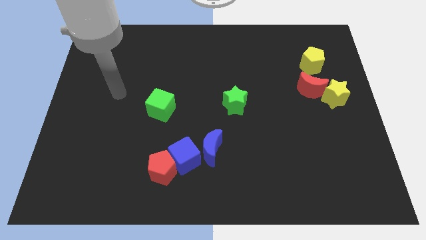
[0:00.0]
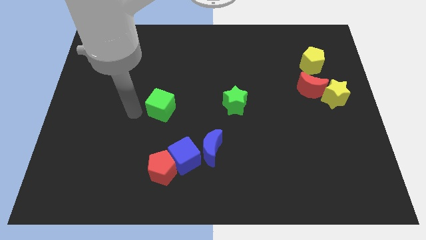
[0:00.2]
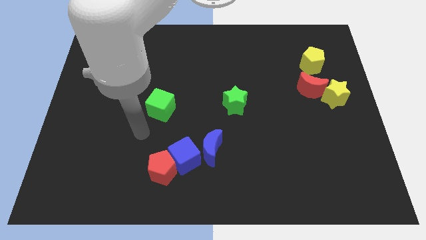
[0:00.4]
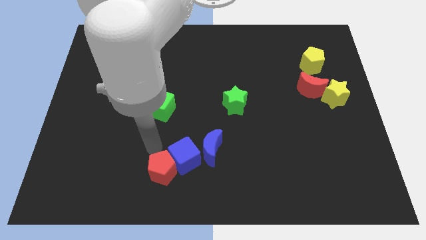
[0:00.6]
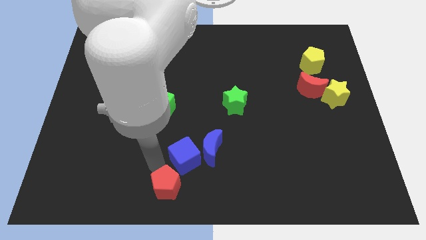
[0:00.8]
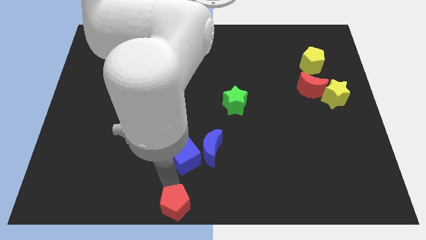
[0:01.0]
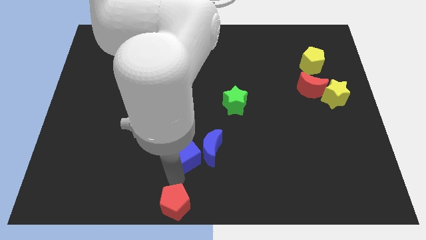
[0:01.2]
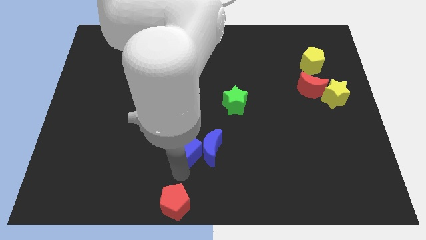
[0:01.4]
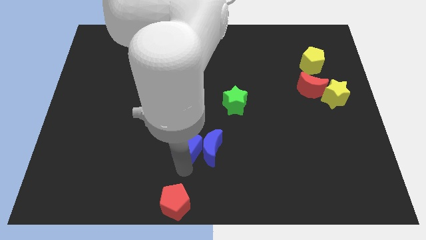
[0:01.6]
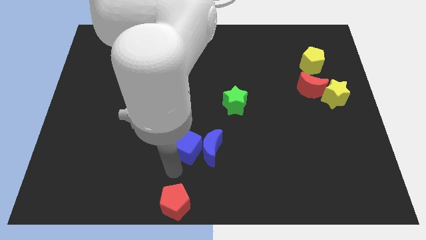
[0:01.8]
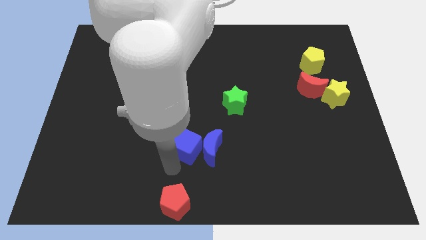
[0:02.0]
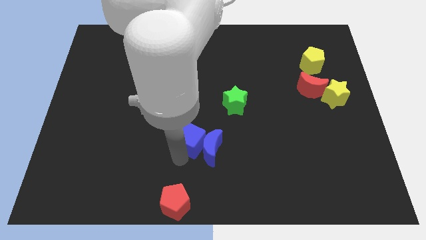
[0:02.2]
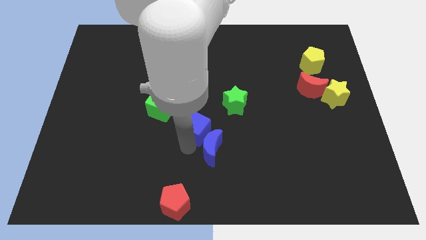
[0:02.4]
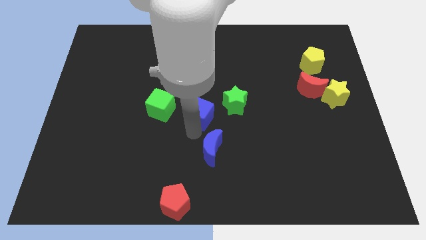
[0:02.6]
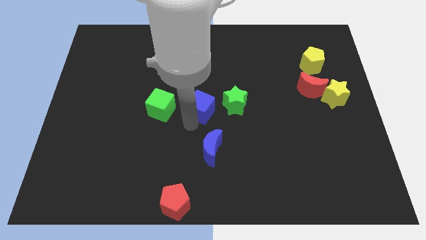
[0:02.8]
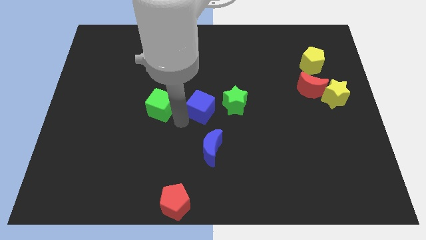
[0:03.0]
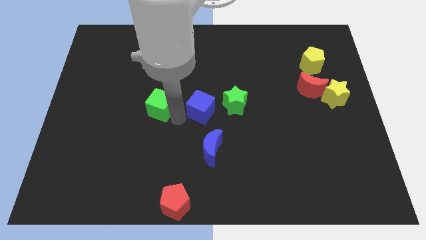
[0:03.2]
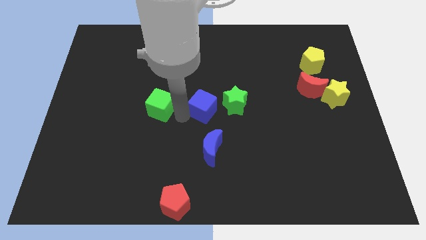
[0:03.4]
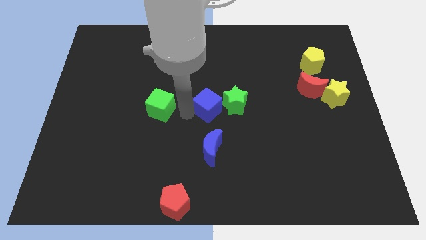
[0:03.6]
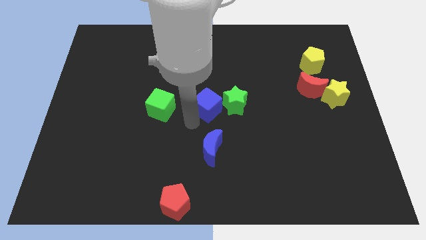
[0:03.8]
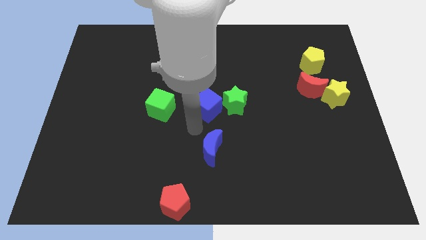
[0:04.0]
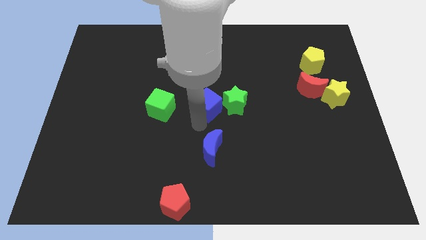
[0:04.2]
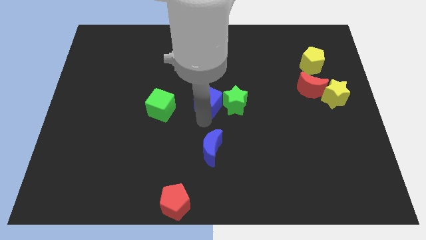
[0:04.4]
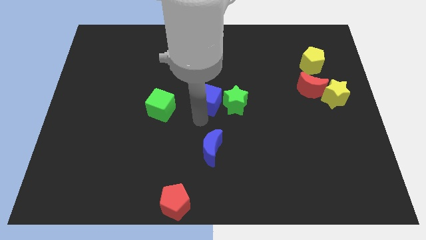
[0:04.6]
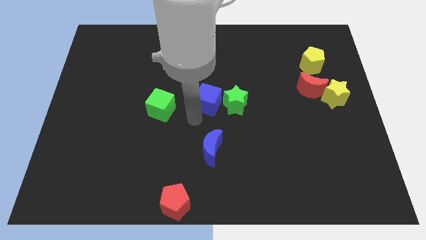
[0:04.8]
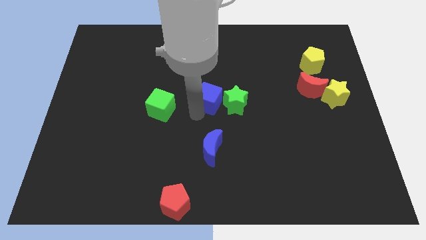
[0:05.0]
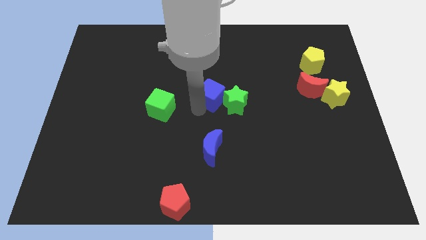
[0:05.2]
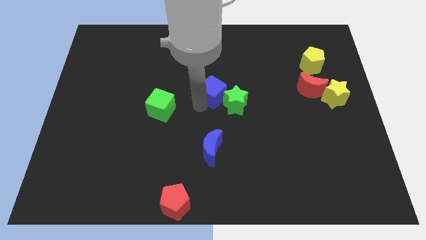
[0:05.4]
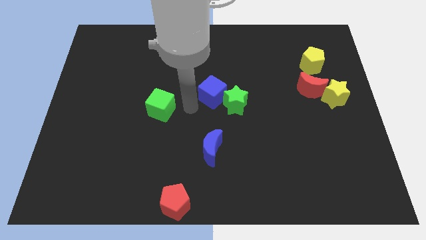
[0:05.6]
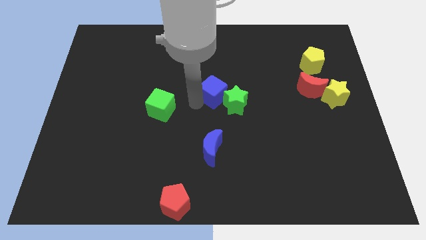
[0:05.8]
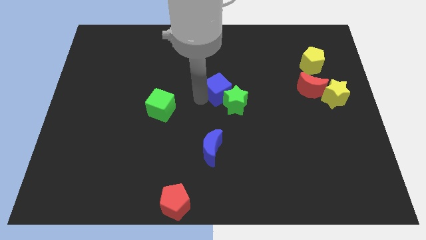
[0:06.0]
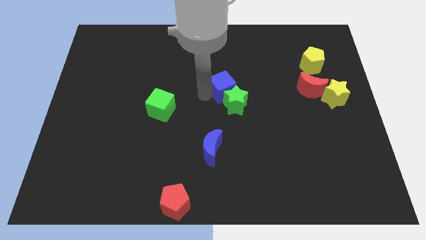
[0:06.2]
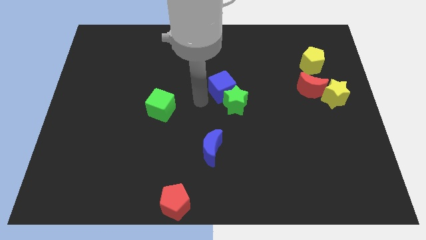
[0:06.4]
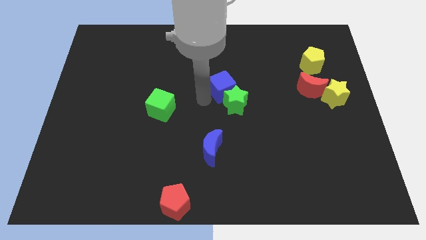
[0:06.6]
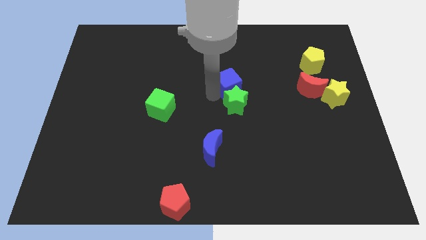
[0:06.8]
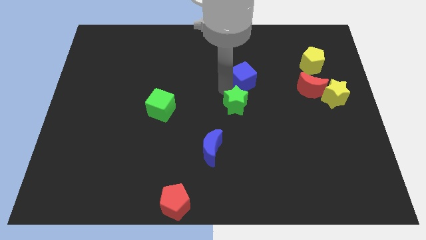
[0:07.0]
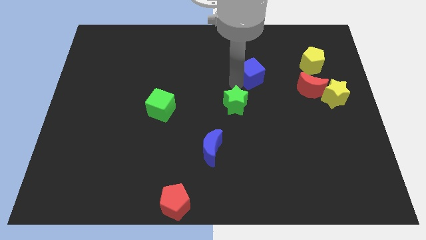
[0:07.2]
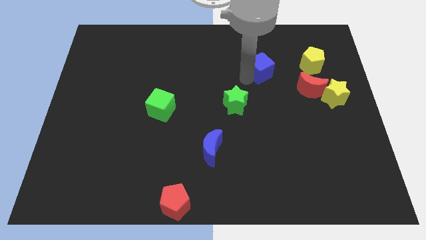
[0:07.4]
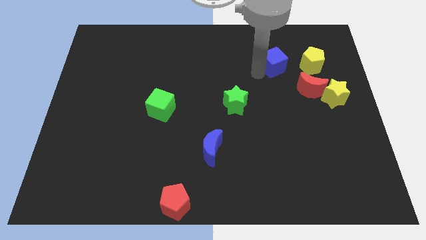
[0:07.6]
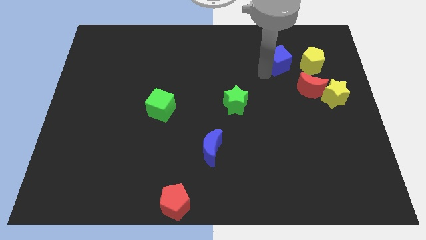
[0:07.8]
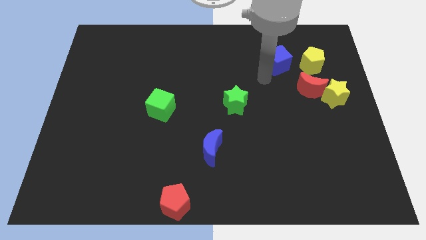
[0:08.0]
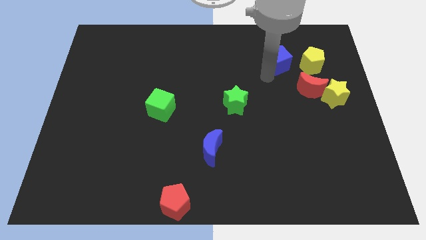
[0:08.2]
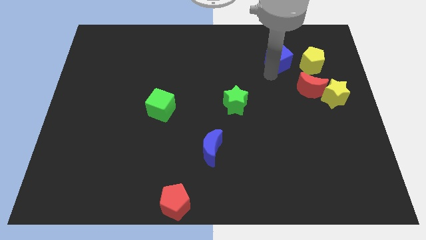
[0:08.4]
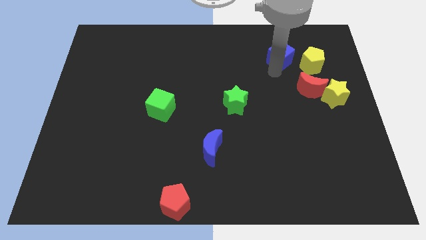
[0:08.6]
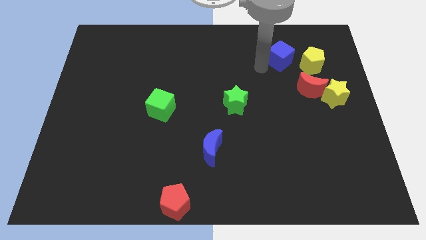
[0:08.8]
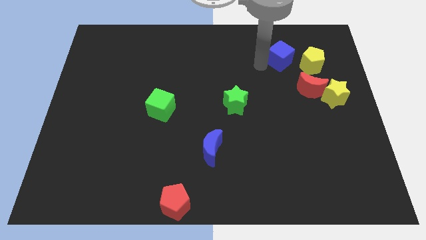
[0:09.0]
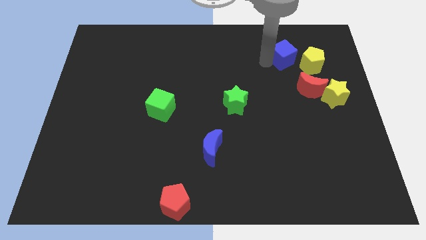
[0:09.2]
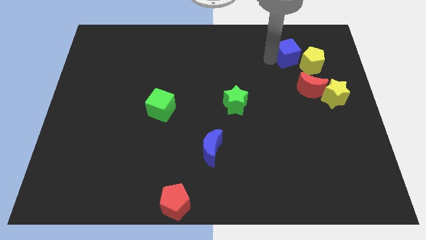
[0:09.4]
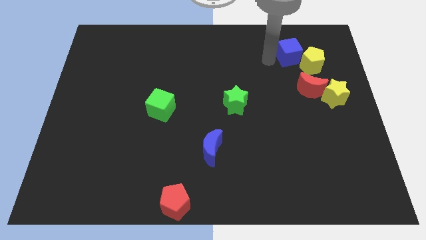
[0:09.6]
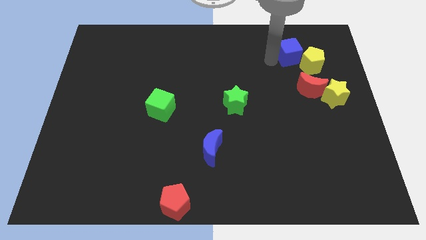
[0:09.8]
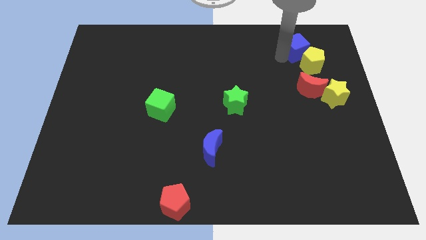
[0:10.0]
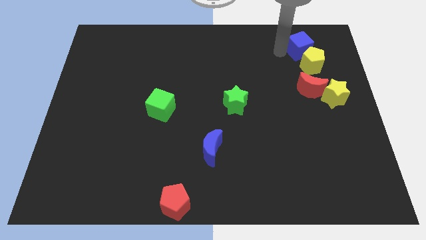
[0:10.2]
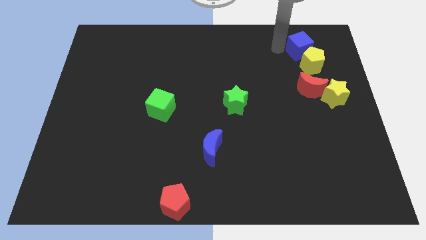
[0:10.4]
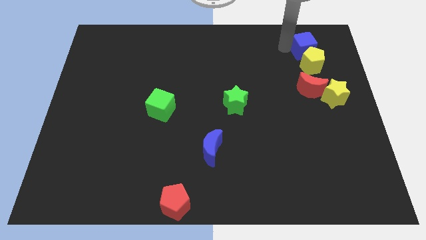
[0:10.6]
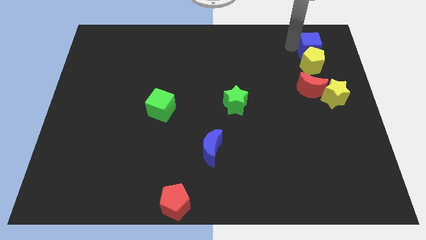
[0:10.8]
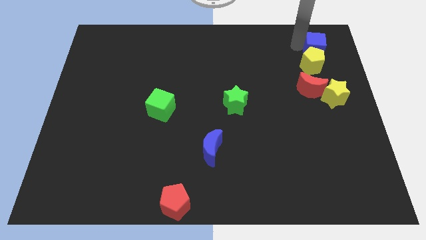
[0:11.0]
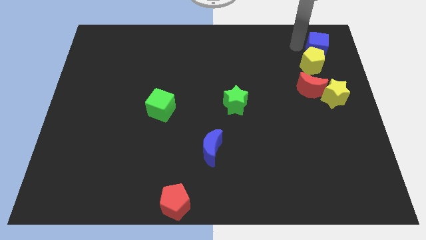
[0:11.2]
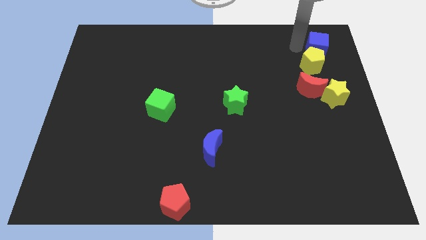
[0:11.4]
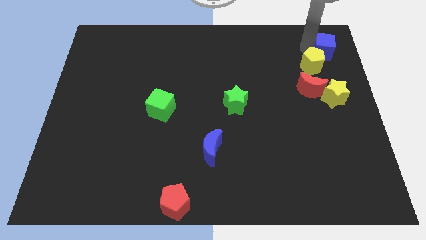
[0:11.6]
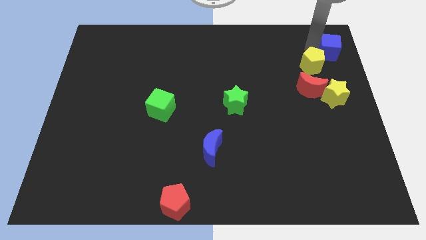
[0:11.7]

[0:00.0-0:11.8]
move the blue cube to the top right corner

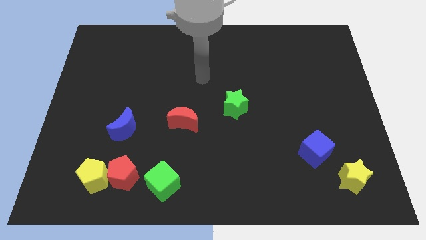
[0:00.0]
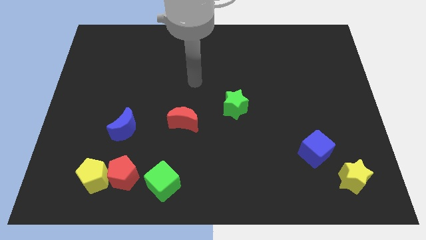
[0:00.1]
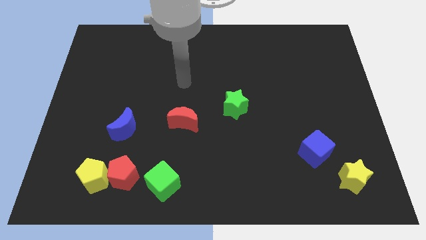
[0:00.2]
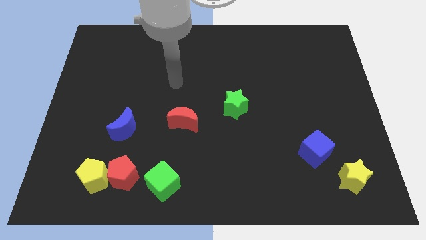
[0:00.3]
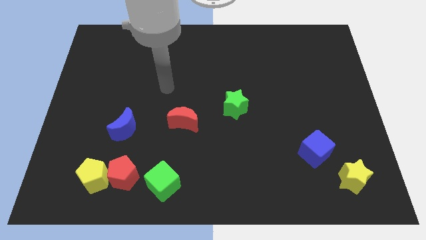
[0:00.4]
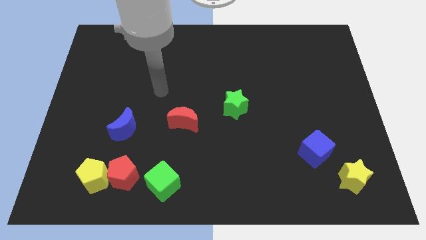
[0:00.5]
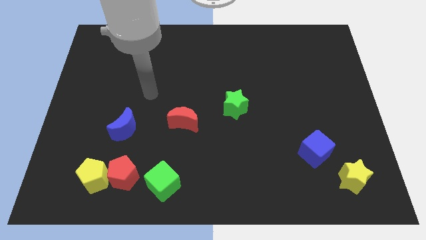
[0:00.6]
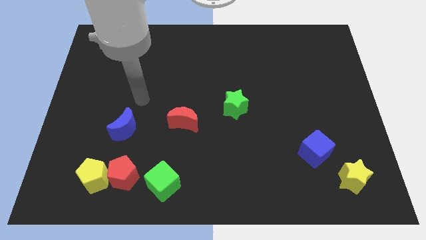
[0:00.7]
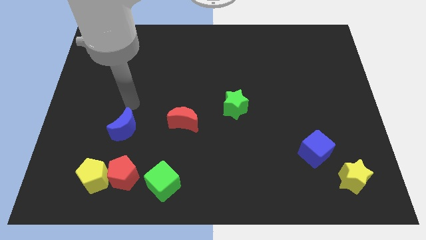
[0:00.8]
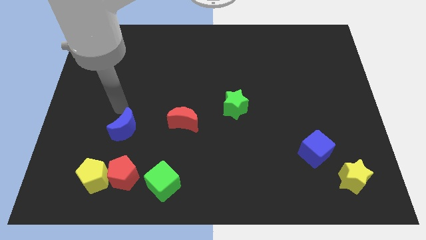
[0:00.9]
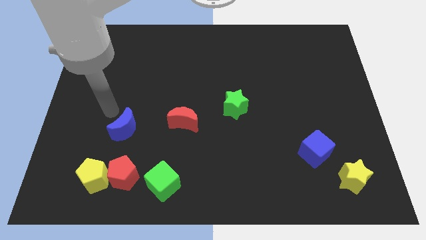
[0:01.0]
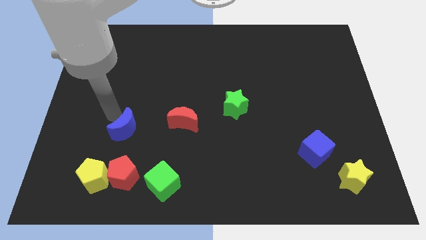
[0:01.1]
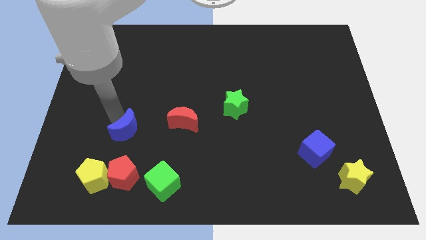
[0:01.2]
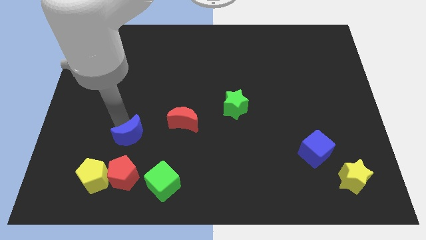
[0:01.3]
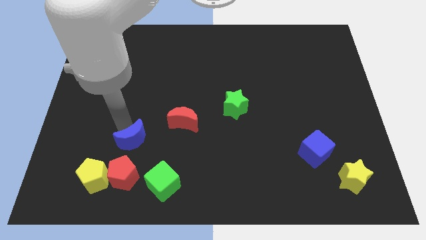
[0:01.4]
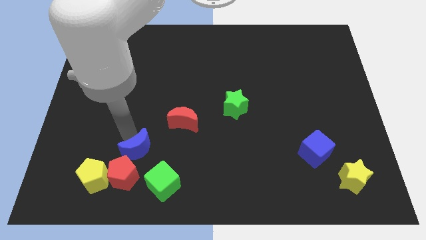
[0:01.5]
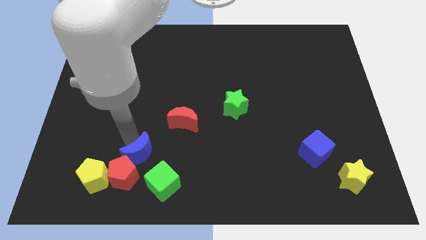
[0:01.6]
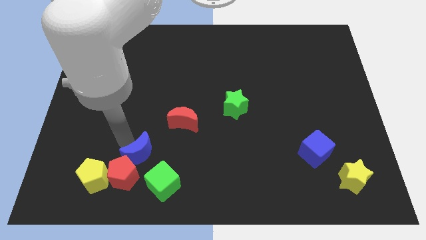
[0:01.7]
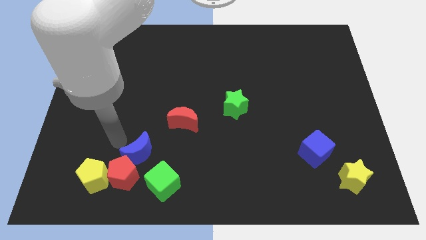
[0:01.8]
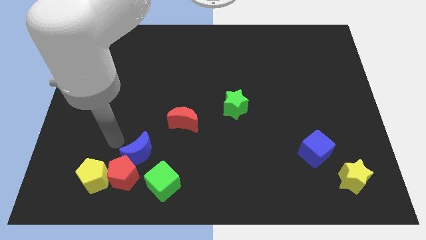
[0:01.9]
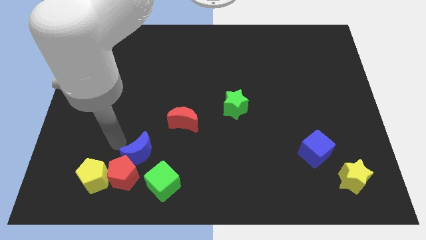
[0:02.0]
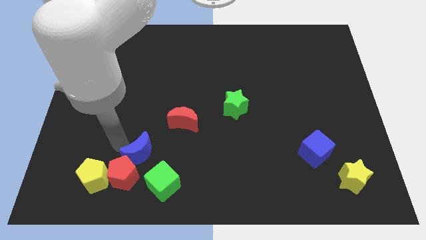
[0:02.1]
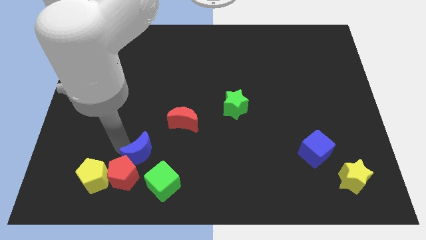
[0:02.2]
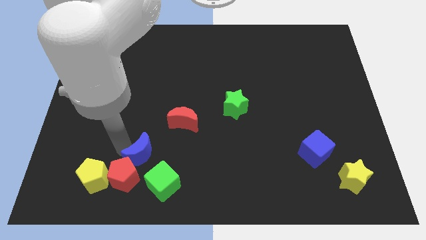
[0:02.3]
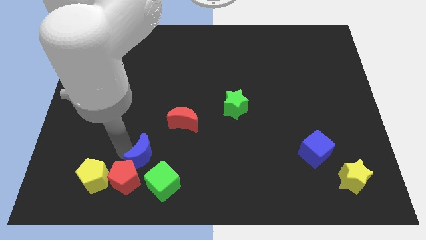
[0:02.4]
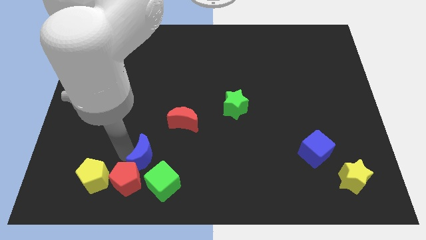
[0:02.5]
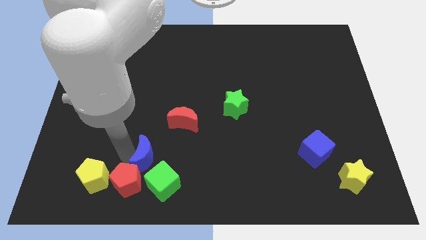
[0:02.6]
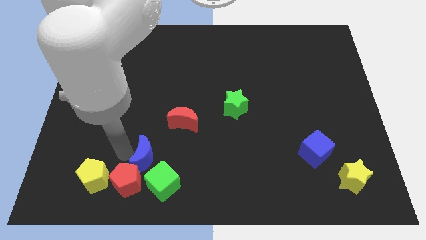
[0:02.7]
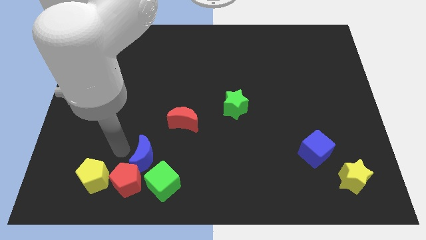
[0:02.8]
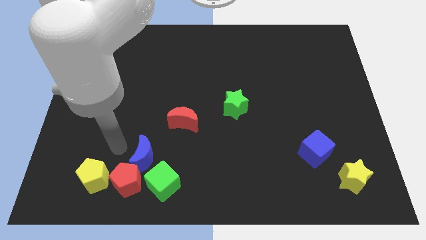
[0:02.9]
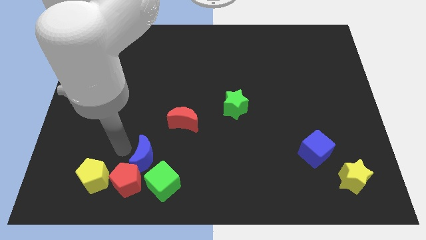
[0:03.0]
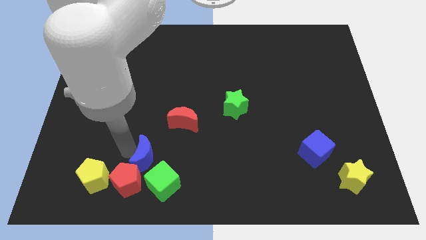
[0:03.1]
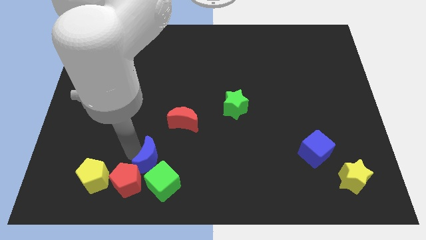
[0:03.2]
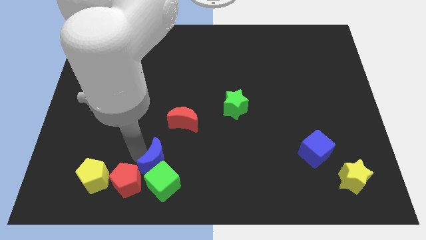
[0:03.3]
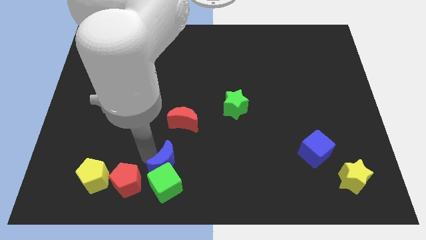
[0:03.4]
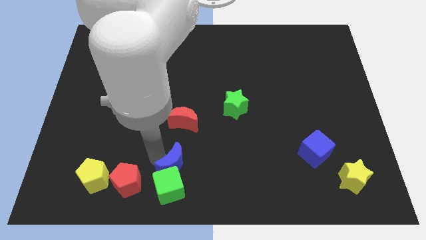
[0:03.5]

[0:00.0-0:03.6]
push the blue moon to the bottom side
